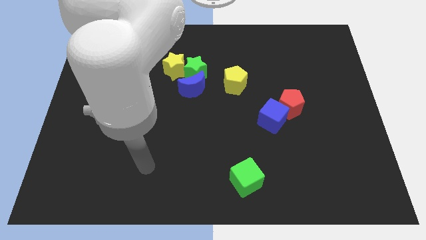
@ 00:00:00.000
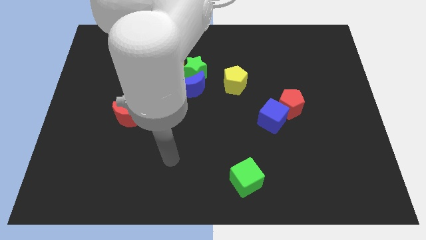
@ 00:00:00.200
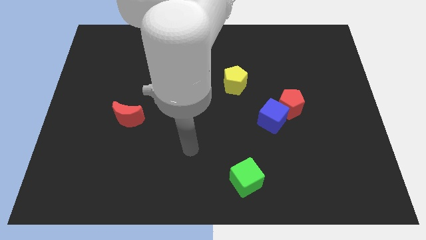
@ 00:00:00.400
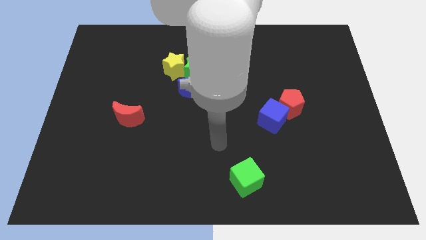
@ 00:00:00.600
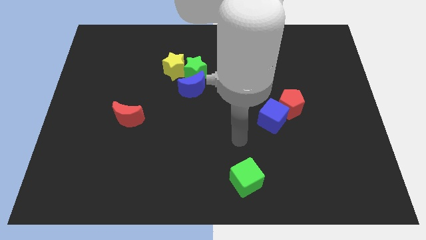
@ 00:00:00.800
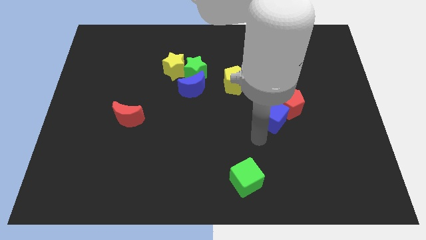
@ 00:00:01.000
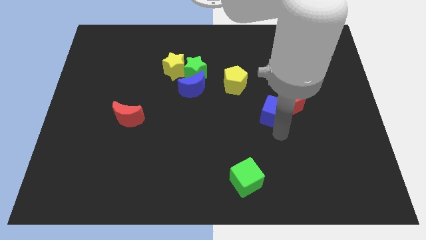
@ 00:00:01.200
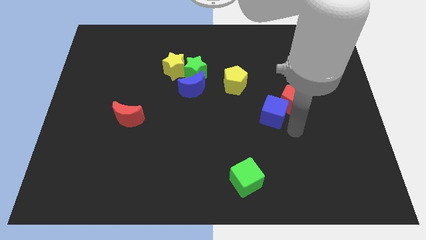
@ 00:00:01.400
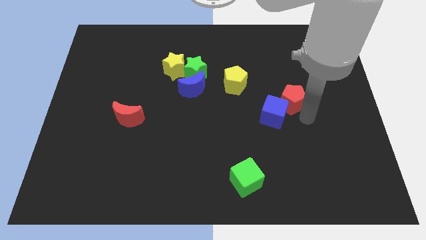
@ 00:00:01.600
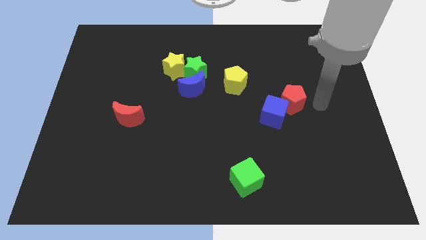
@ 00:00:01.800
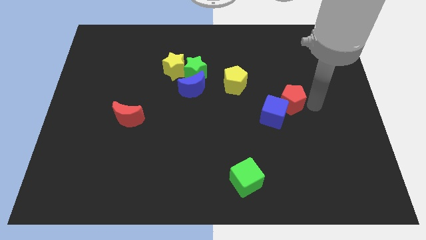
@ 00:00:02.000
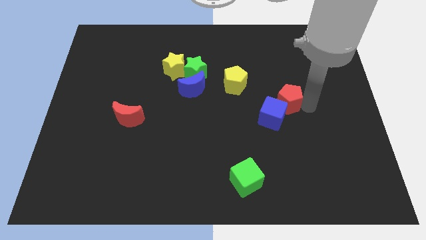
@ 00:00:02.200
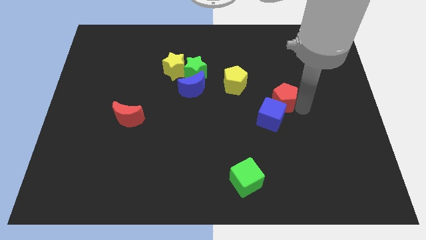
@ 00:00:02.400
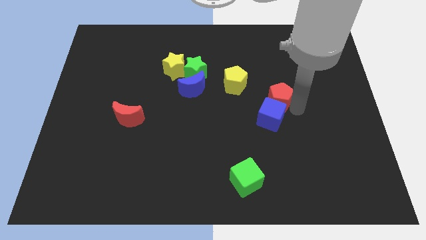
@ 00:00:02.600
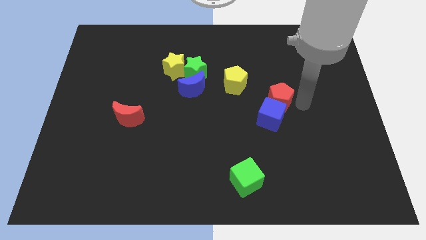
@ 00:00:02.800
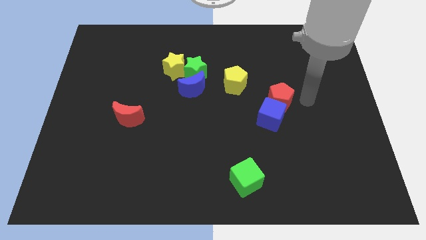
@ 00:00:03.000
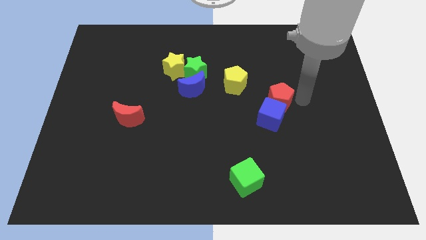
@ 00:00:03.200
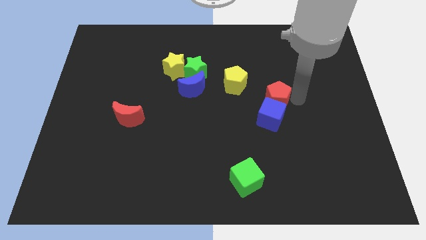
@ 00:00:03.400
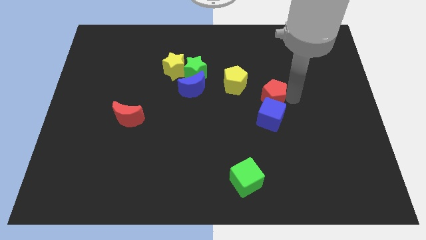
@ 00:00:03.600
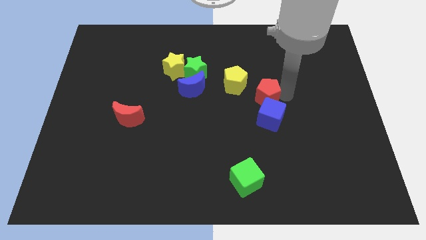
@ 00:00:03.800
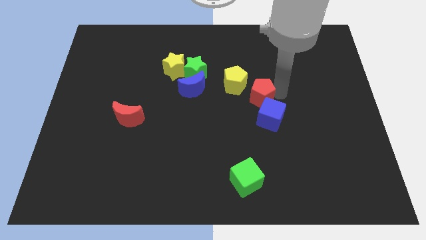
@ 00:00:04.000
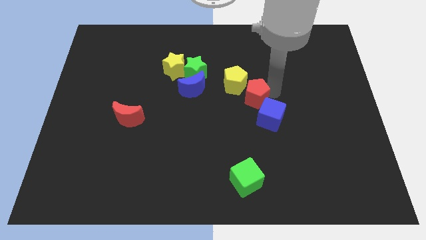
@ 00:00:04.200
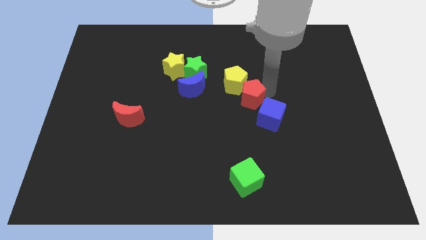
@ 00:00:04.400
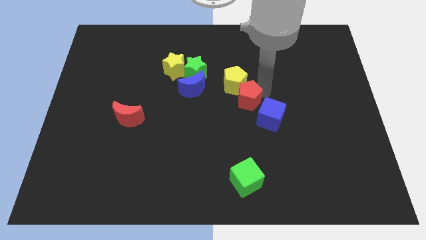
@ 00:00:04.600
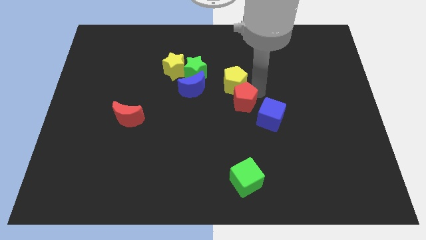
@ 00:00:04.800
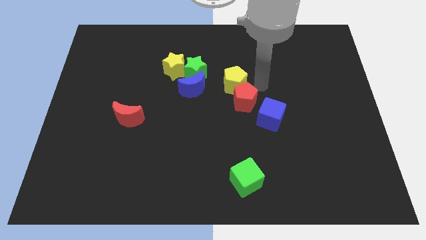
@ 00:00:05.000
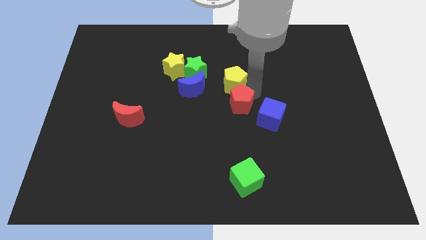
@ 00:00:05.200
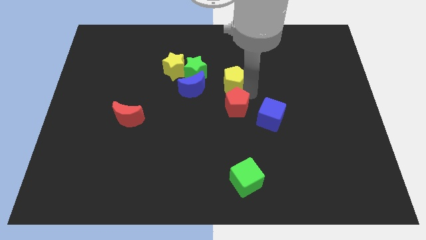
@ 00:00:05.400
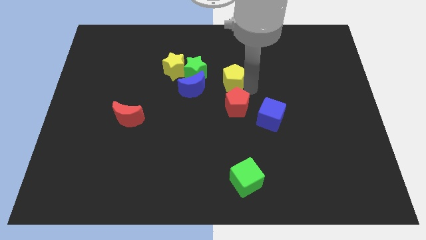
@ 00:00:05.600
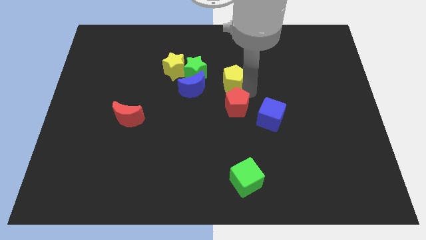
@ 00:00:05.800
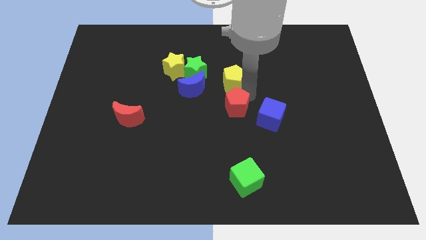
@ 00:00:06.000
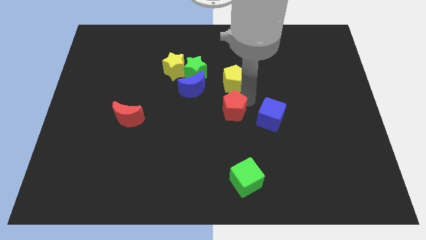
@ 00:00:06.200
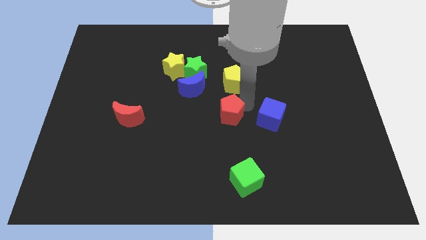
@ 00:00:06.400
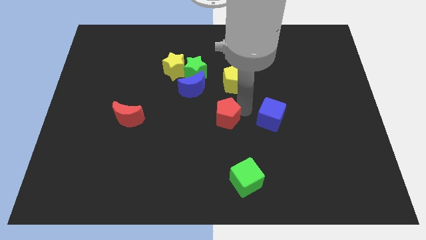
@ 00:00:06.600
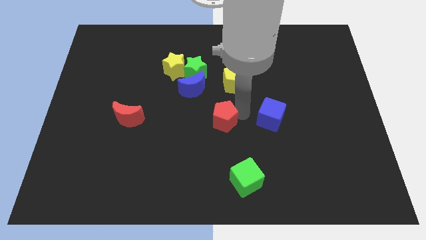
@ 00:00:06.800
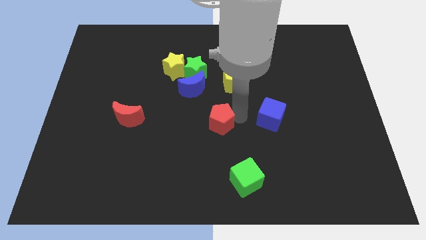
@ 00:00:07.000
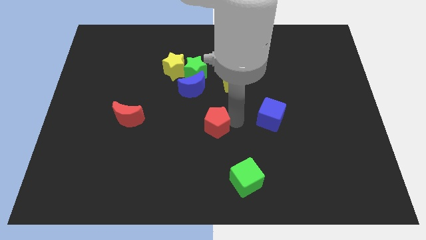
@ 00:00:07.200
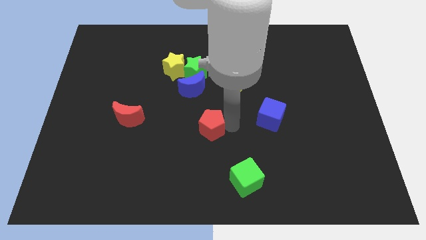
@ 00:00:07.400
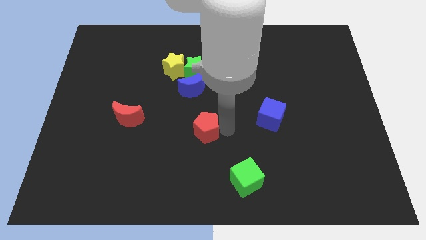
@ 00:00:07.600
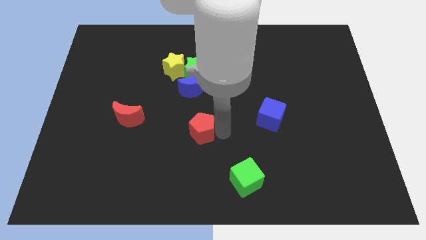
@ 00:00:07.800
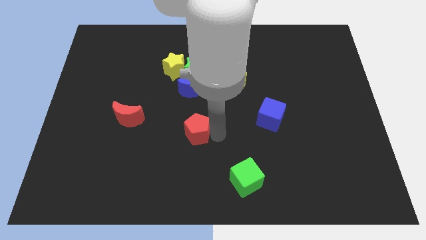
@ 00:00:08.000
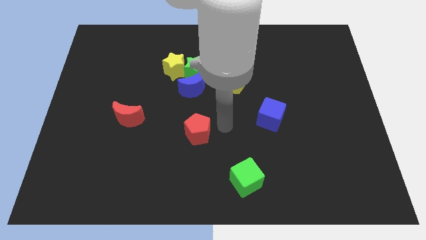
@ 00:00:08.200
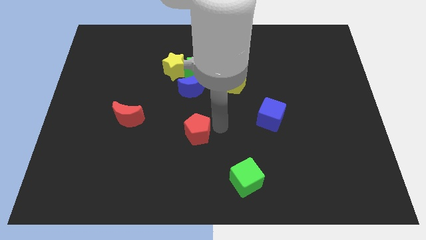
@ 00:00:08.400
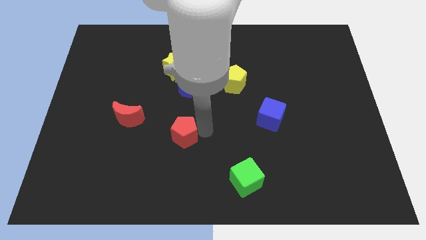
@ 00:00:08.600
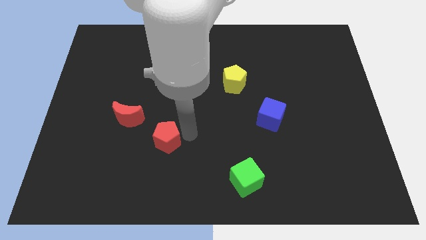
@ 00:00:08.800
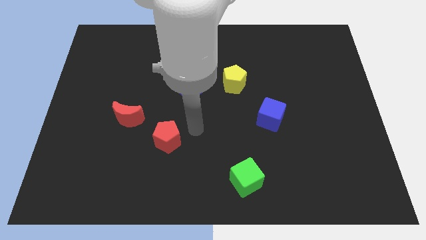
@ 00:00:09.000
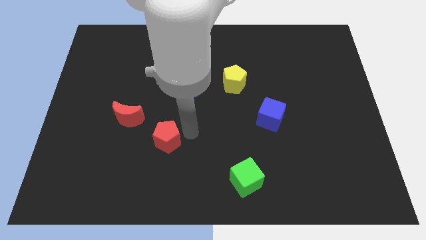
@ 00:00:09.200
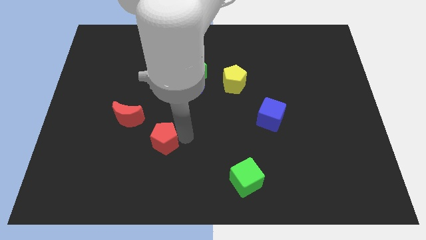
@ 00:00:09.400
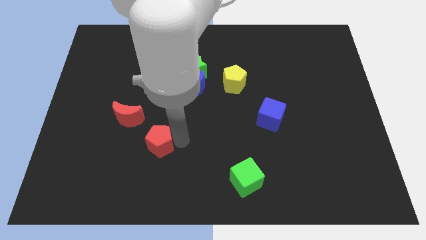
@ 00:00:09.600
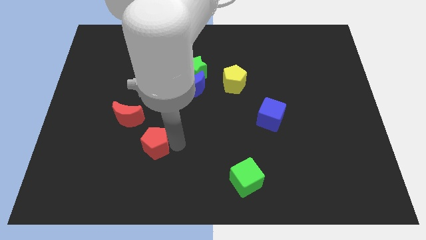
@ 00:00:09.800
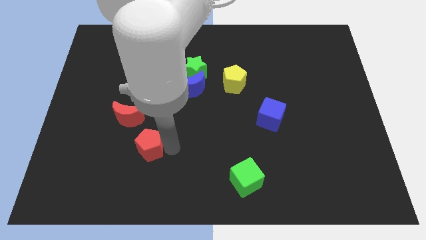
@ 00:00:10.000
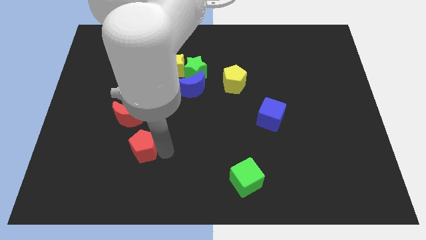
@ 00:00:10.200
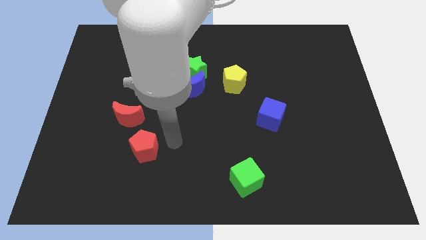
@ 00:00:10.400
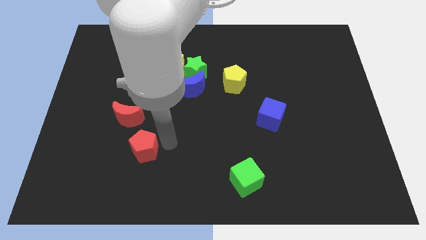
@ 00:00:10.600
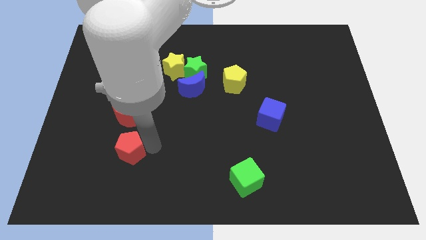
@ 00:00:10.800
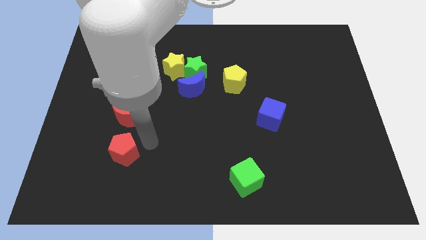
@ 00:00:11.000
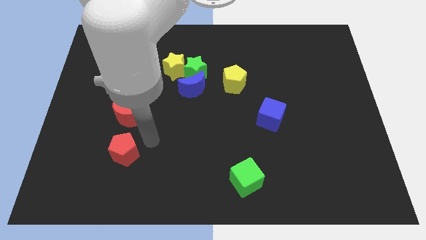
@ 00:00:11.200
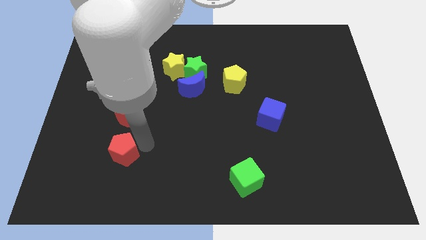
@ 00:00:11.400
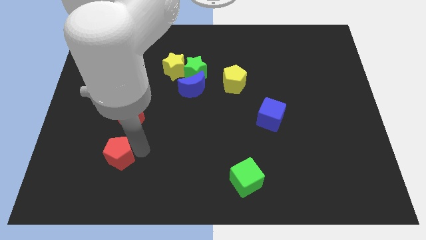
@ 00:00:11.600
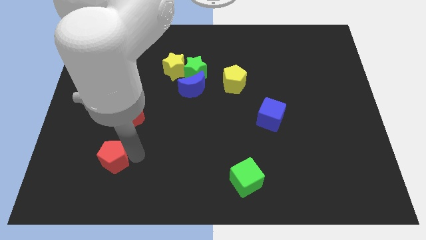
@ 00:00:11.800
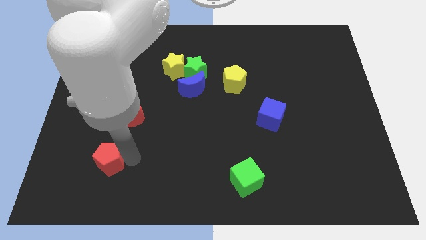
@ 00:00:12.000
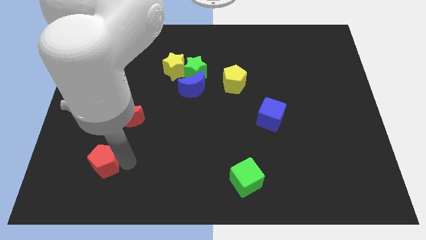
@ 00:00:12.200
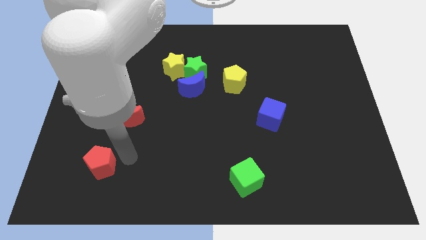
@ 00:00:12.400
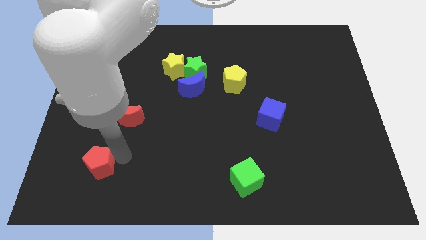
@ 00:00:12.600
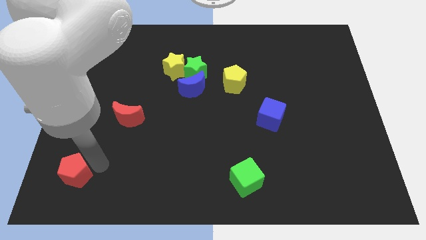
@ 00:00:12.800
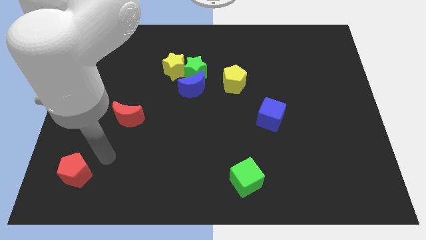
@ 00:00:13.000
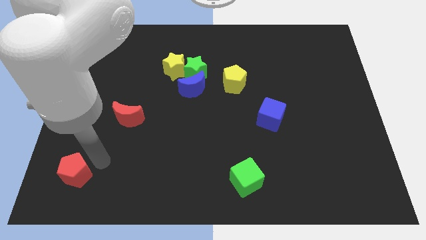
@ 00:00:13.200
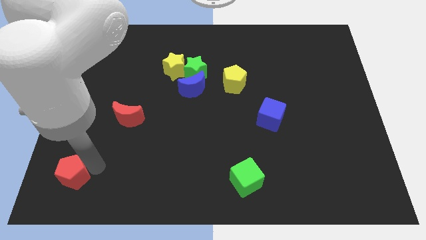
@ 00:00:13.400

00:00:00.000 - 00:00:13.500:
slide the red pentagon to the bottom left corner
